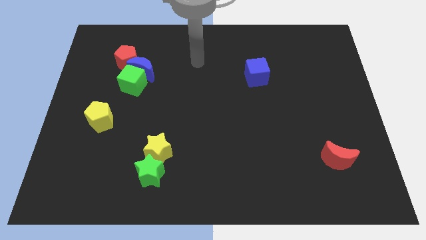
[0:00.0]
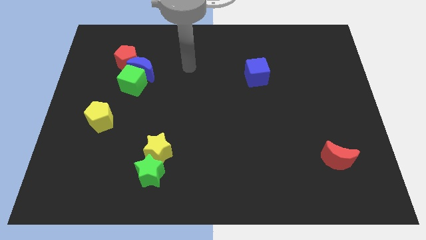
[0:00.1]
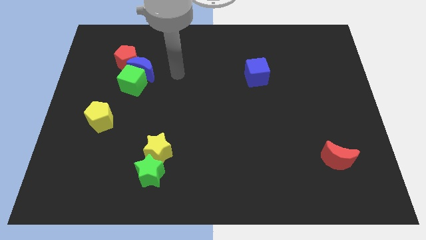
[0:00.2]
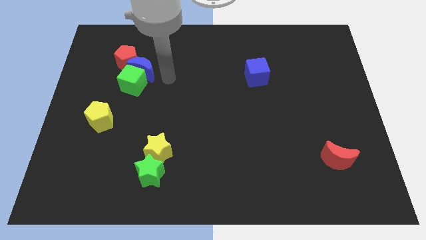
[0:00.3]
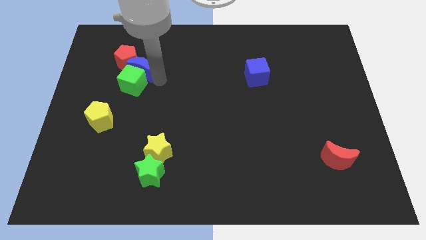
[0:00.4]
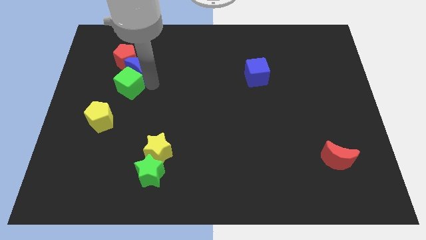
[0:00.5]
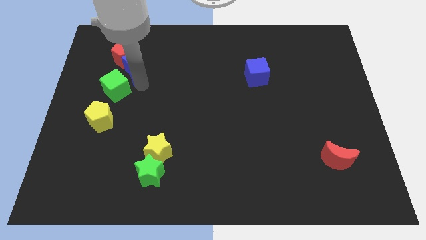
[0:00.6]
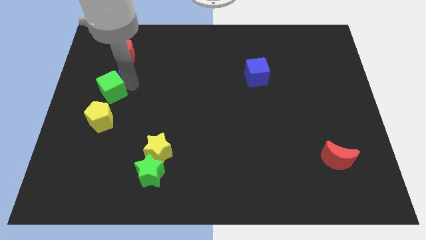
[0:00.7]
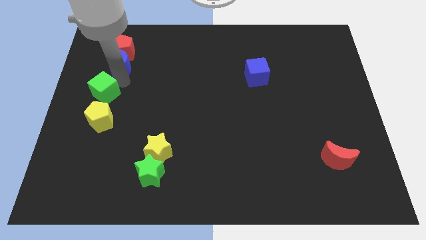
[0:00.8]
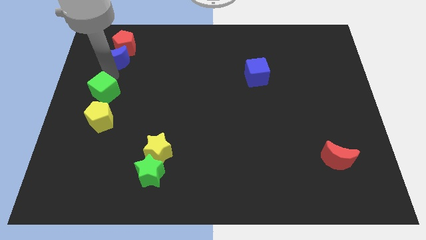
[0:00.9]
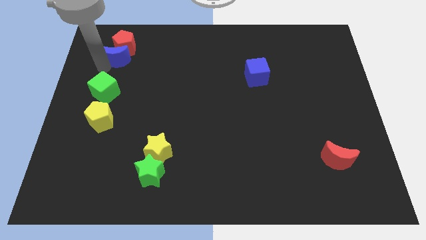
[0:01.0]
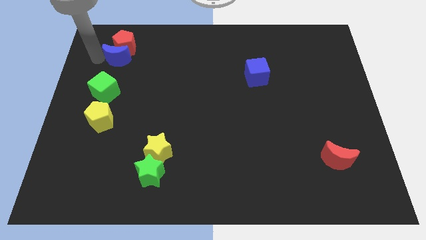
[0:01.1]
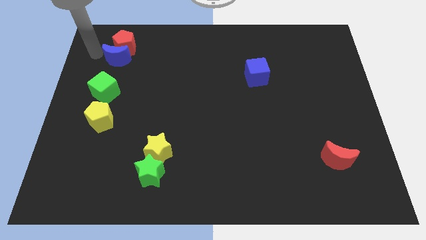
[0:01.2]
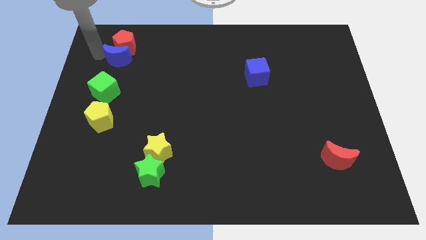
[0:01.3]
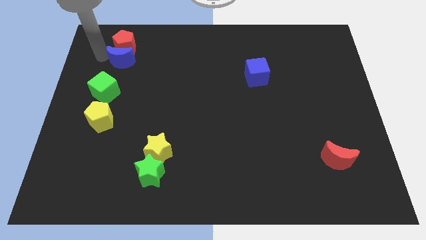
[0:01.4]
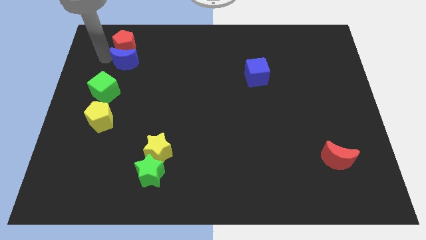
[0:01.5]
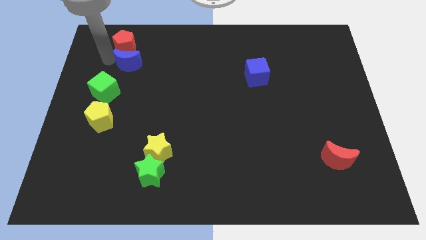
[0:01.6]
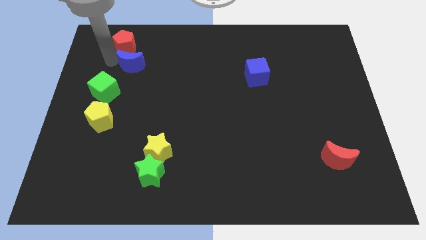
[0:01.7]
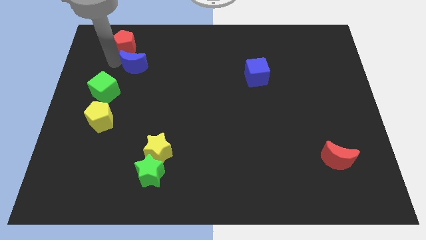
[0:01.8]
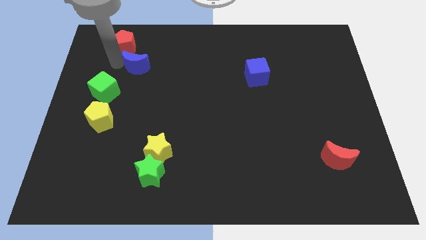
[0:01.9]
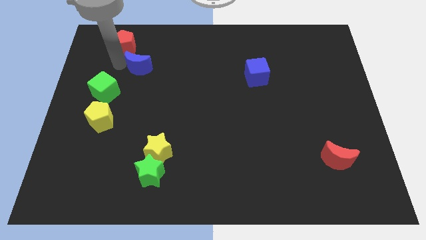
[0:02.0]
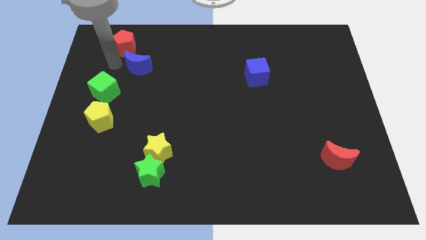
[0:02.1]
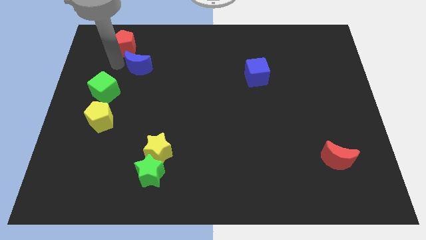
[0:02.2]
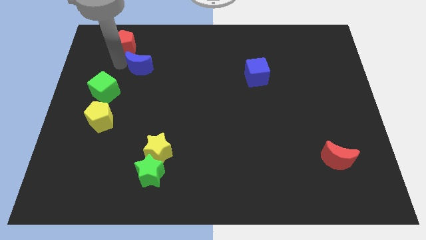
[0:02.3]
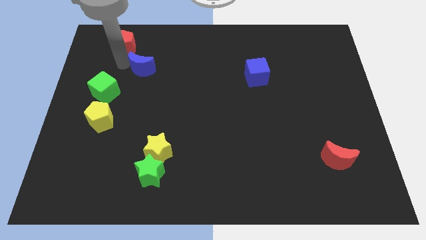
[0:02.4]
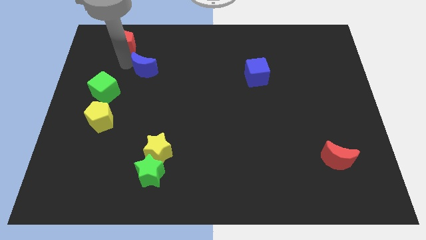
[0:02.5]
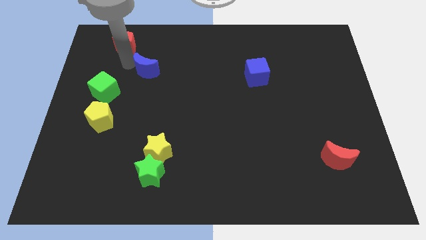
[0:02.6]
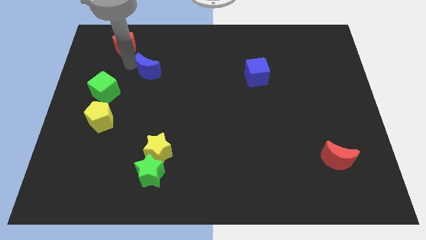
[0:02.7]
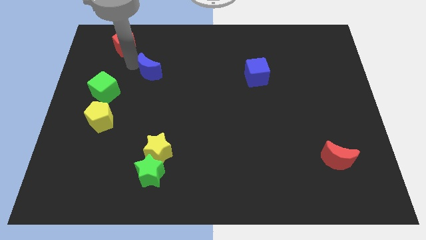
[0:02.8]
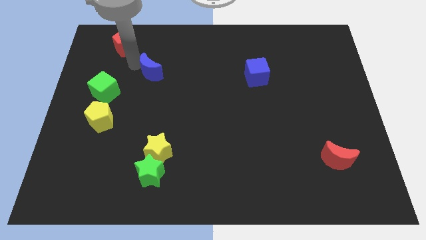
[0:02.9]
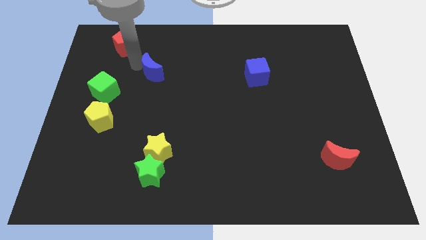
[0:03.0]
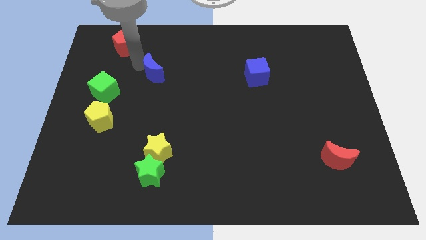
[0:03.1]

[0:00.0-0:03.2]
separate the blue moon from the green cube and red pentagon

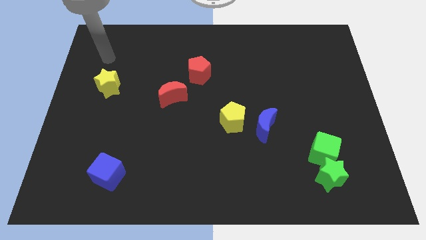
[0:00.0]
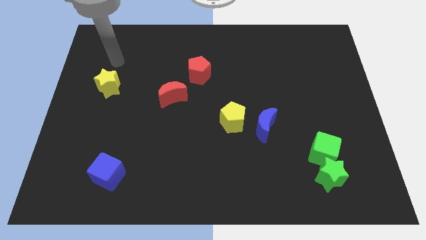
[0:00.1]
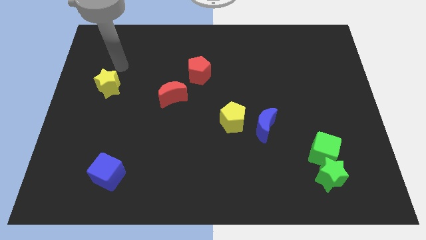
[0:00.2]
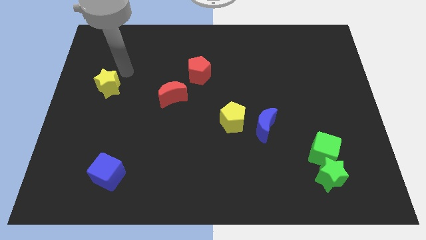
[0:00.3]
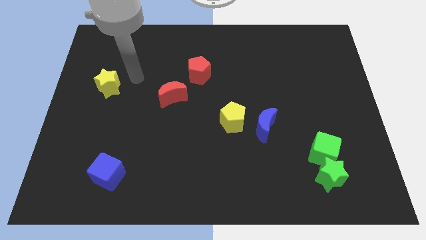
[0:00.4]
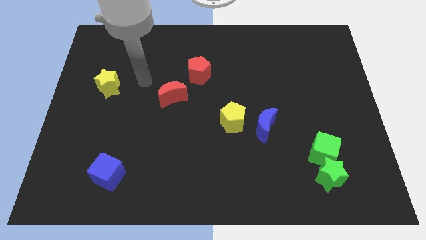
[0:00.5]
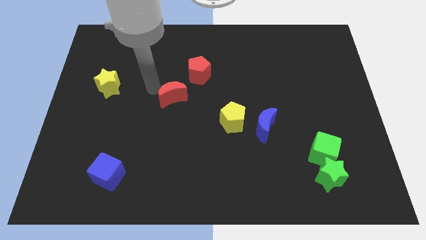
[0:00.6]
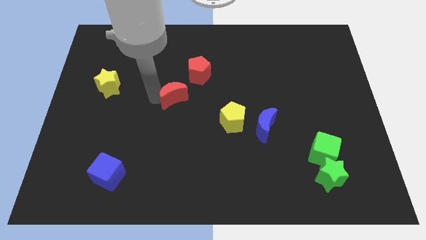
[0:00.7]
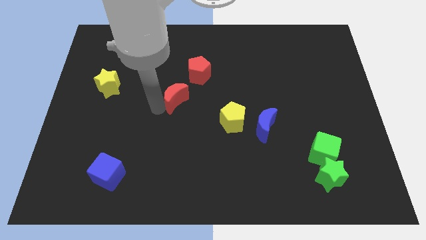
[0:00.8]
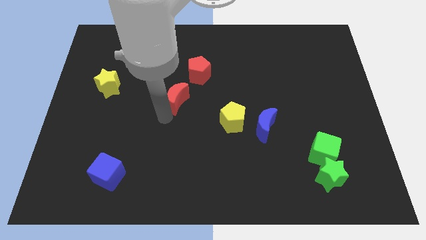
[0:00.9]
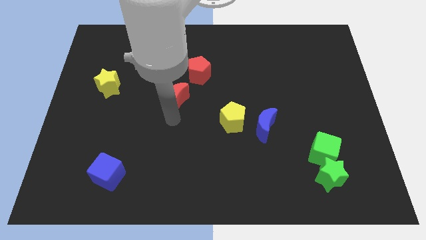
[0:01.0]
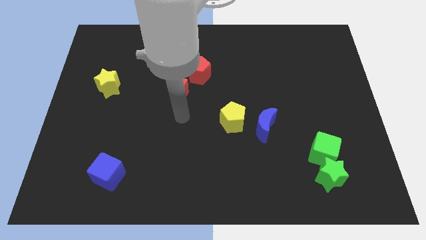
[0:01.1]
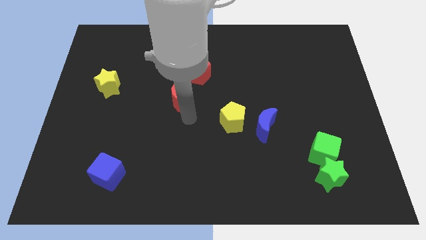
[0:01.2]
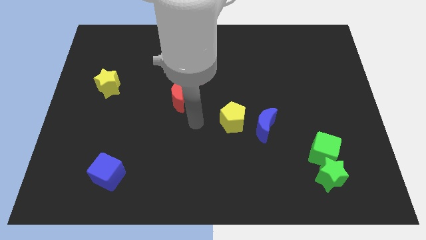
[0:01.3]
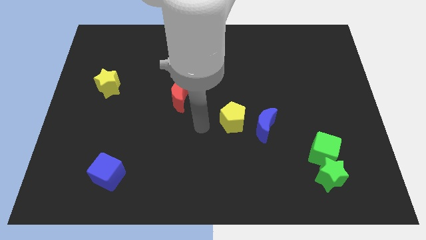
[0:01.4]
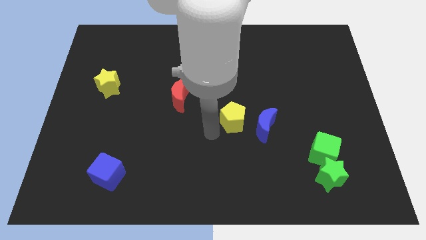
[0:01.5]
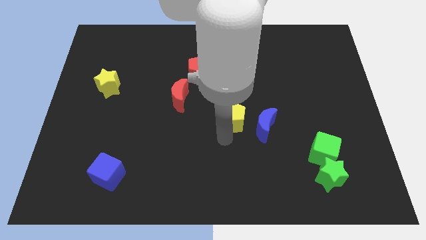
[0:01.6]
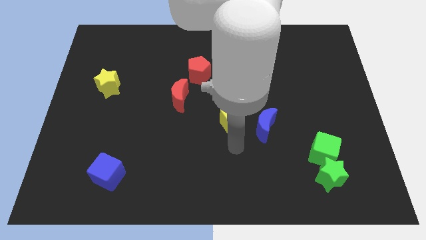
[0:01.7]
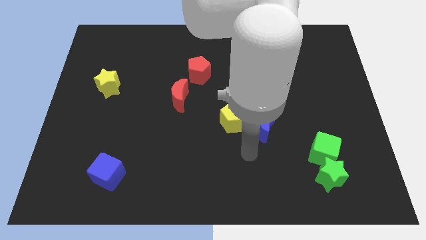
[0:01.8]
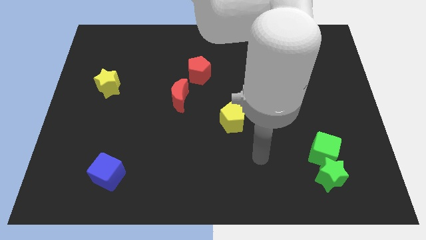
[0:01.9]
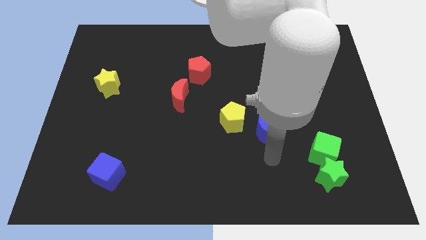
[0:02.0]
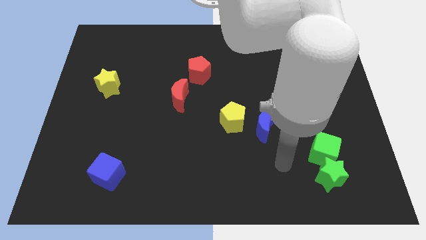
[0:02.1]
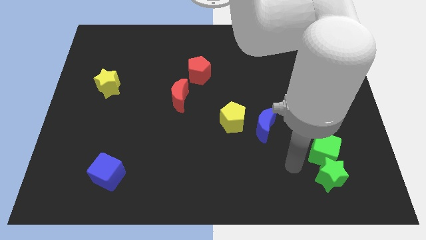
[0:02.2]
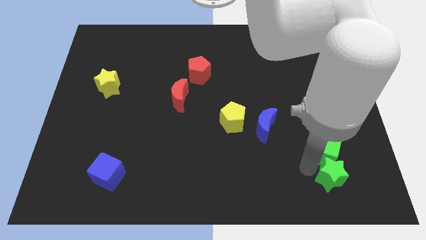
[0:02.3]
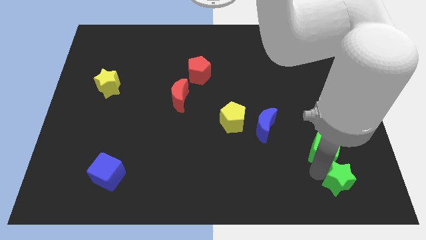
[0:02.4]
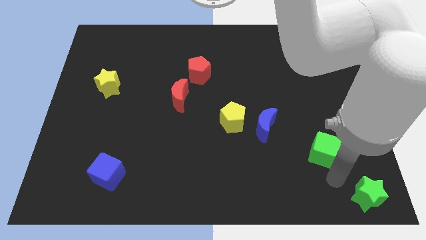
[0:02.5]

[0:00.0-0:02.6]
move the green cube away from the green star

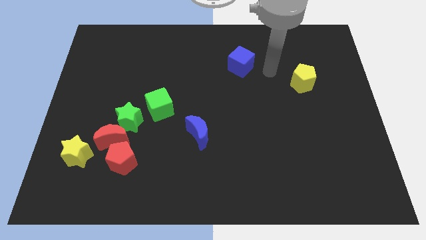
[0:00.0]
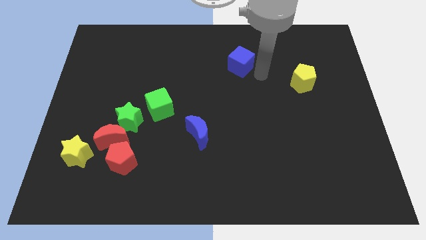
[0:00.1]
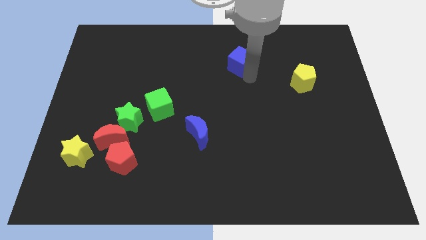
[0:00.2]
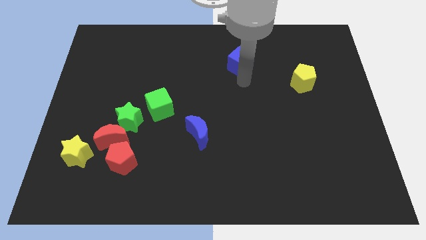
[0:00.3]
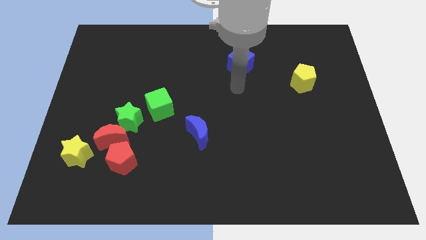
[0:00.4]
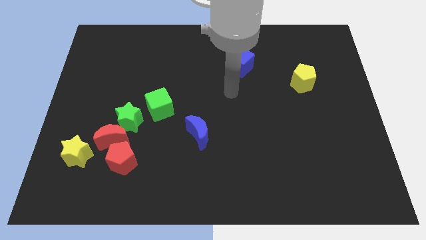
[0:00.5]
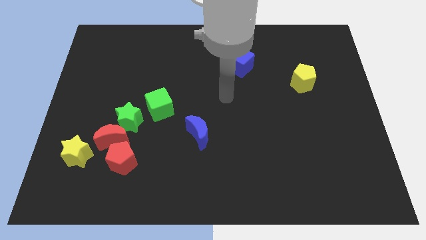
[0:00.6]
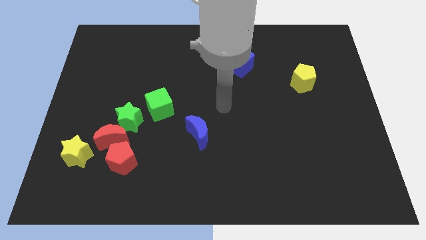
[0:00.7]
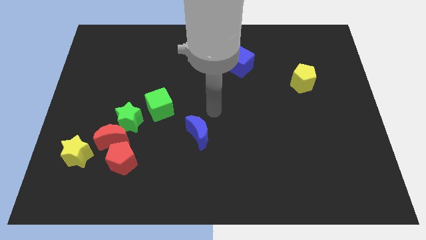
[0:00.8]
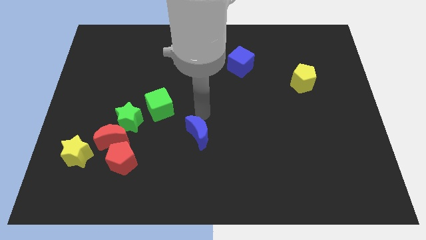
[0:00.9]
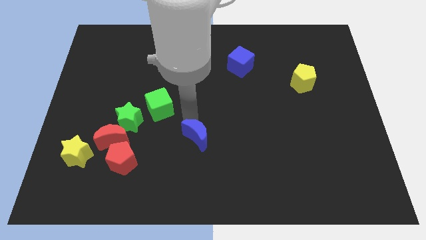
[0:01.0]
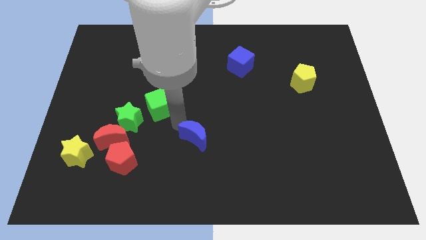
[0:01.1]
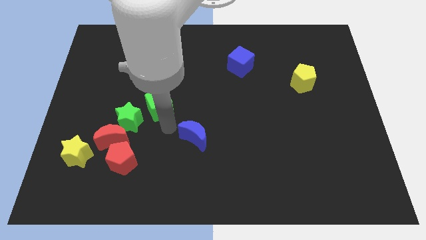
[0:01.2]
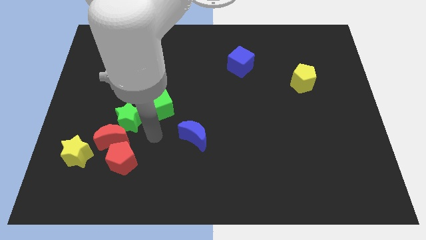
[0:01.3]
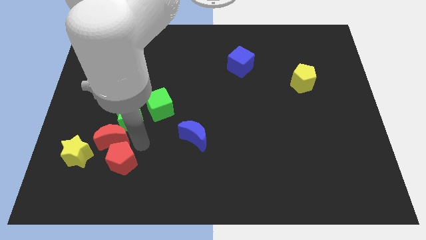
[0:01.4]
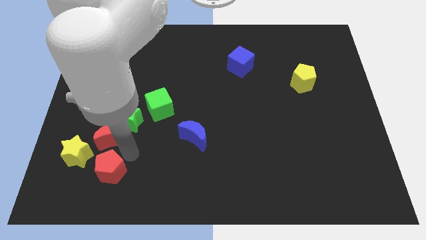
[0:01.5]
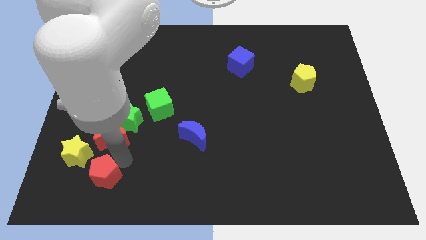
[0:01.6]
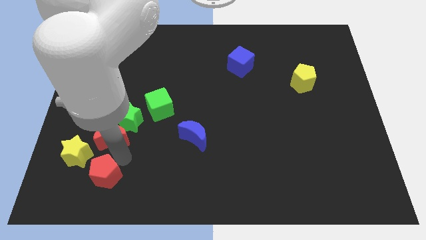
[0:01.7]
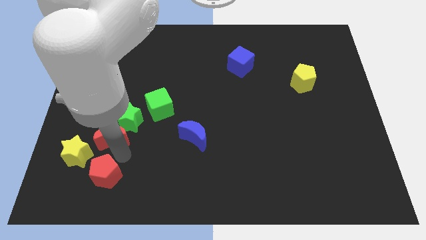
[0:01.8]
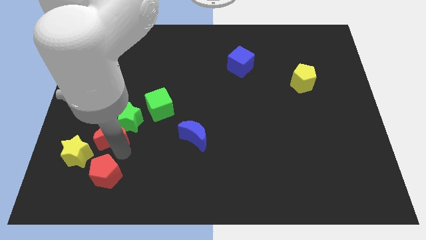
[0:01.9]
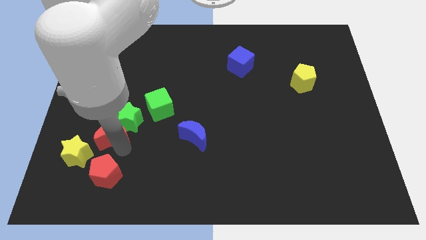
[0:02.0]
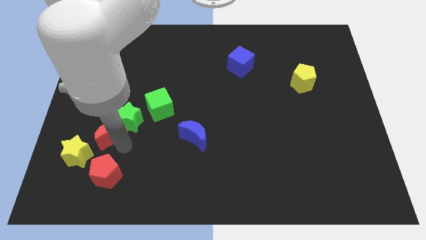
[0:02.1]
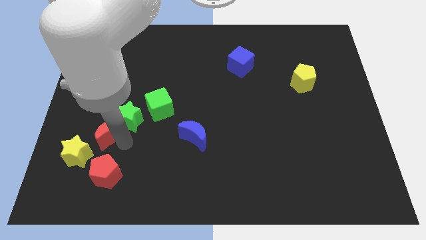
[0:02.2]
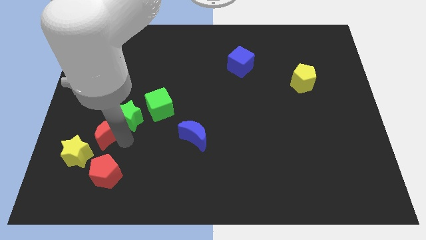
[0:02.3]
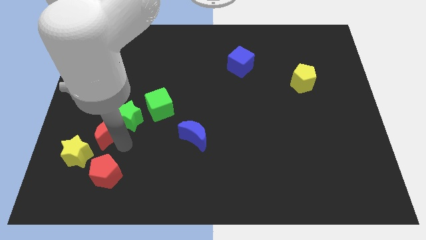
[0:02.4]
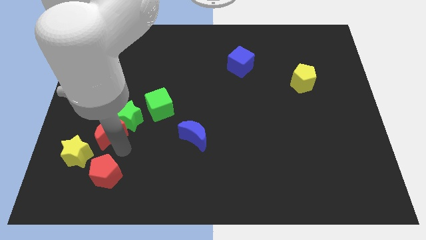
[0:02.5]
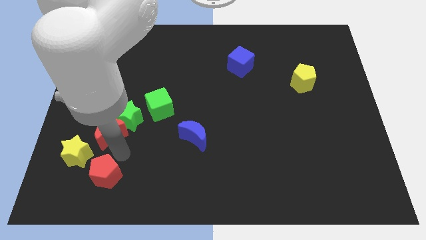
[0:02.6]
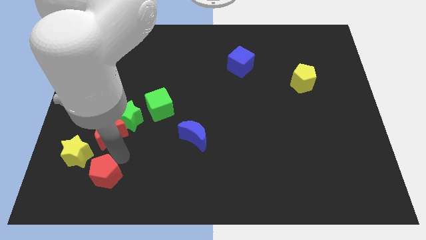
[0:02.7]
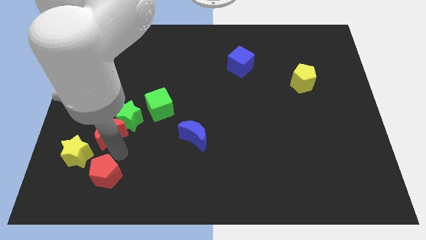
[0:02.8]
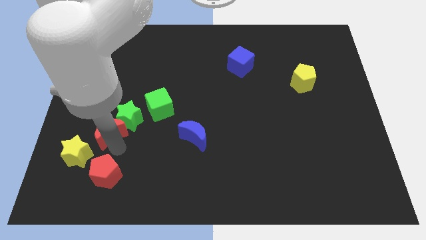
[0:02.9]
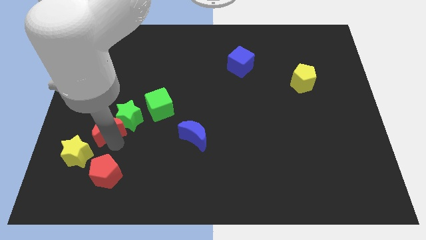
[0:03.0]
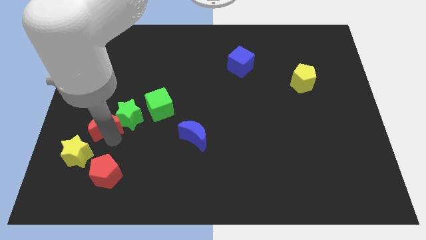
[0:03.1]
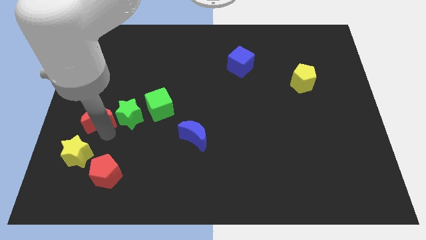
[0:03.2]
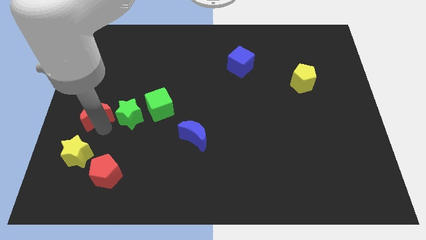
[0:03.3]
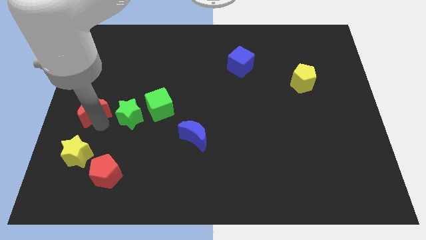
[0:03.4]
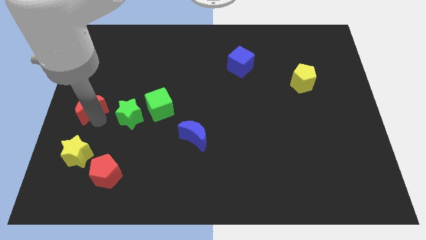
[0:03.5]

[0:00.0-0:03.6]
separate the red moon from the group of blocks
